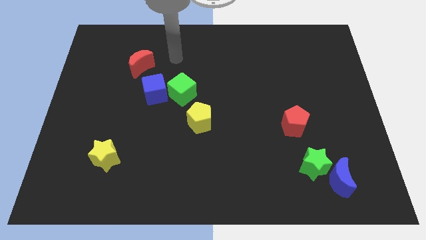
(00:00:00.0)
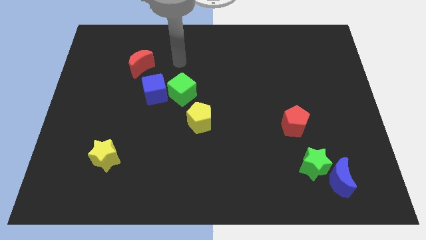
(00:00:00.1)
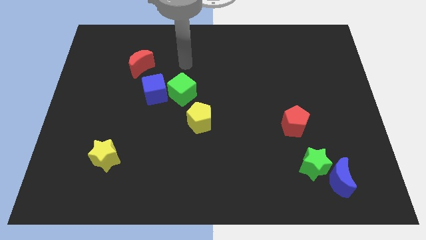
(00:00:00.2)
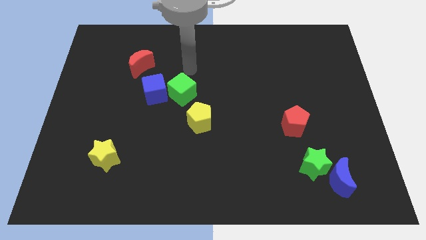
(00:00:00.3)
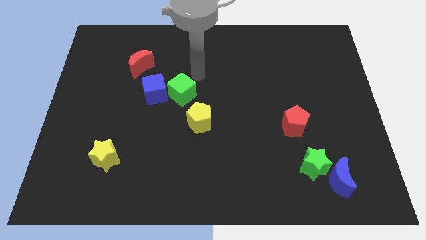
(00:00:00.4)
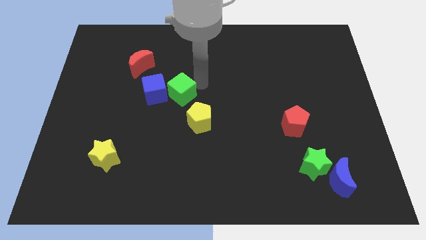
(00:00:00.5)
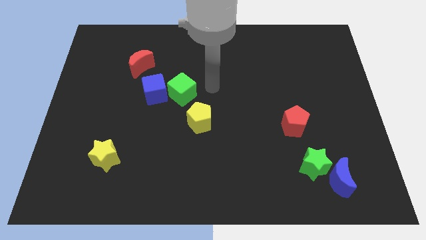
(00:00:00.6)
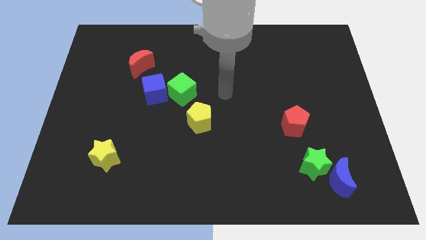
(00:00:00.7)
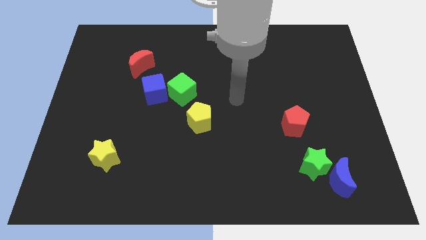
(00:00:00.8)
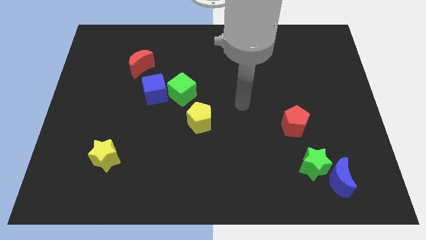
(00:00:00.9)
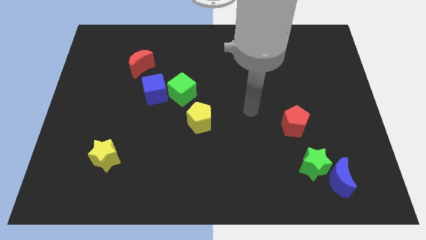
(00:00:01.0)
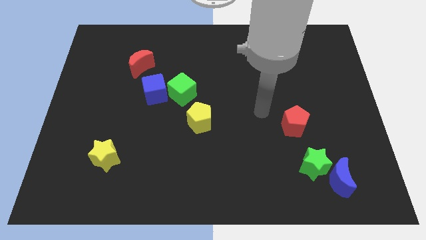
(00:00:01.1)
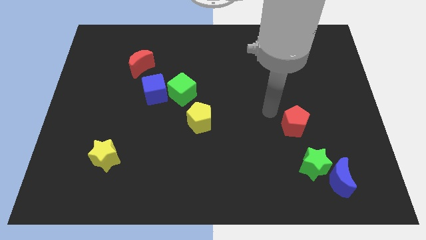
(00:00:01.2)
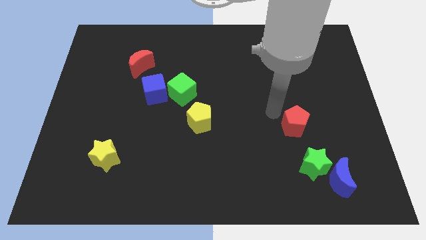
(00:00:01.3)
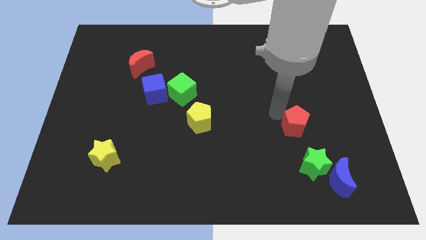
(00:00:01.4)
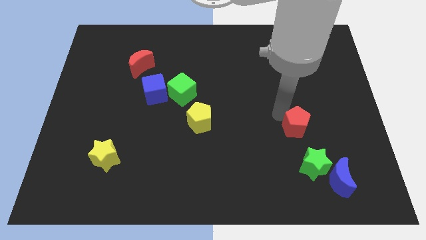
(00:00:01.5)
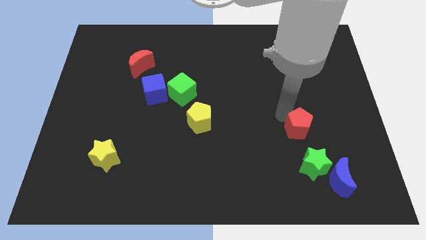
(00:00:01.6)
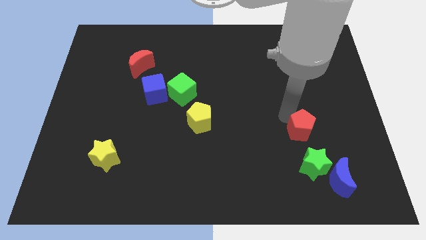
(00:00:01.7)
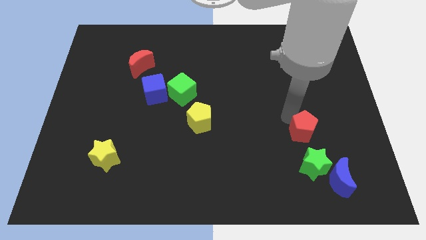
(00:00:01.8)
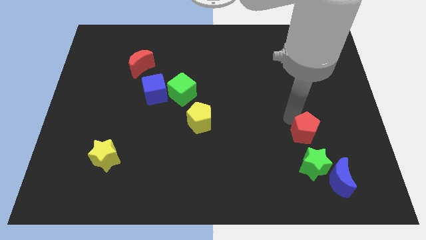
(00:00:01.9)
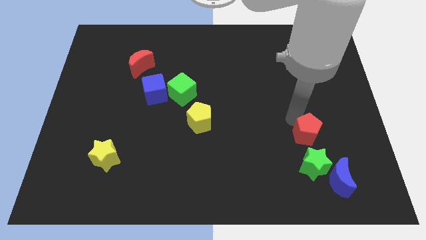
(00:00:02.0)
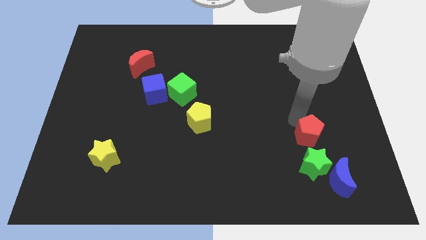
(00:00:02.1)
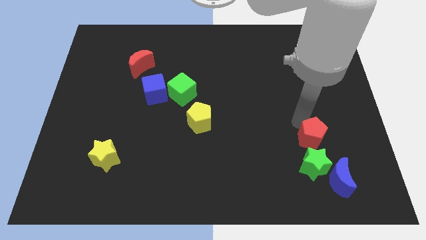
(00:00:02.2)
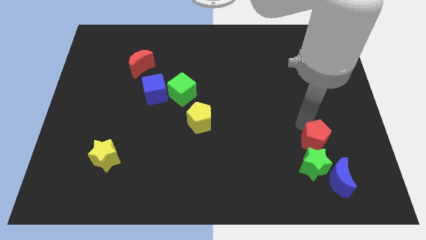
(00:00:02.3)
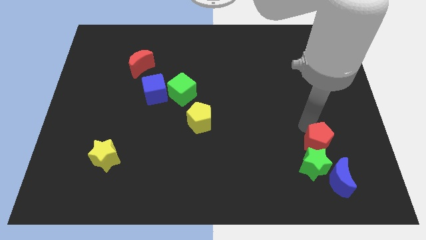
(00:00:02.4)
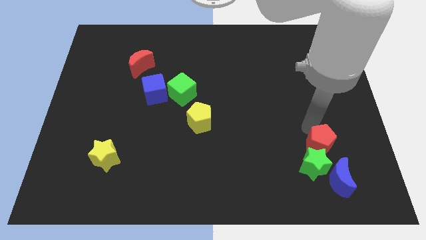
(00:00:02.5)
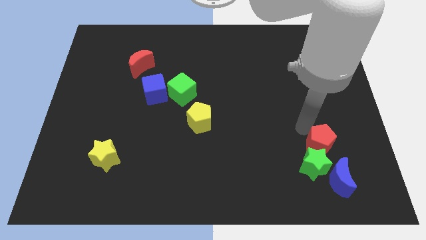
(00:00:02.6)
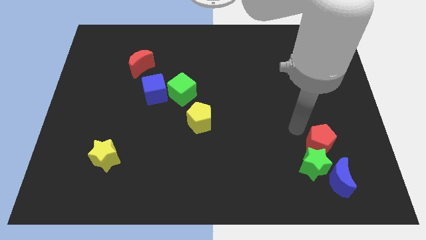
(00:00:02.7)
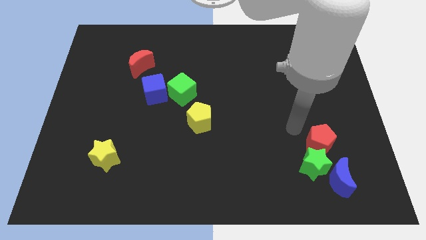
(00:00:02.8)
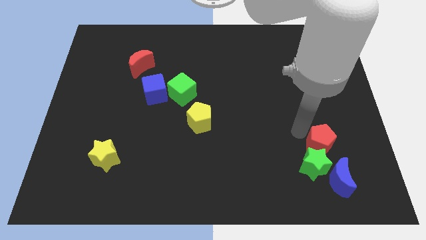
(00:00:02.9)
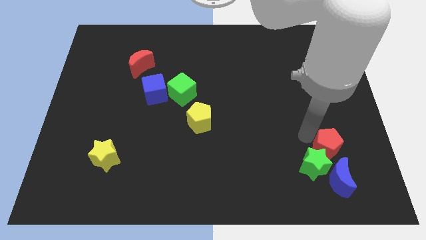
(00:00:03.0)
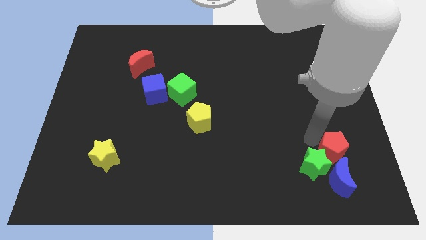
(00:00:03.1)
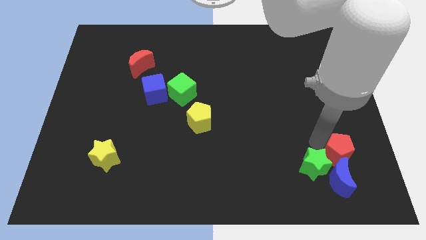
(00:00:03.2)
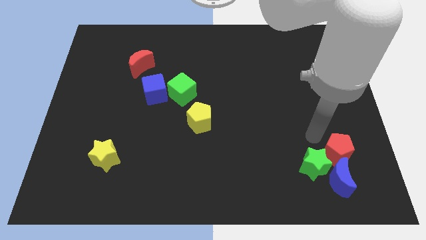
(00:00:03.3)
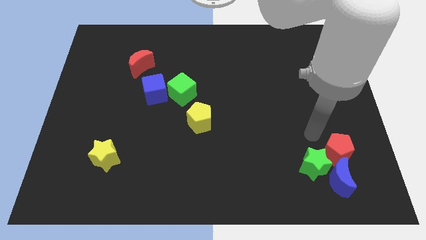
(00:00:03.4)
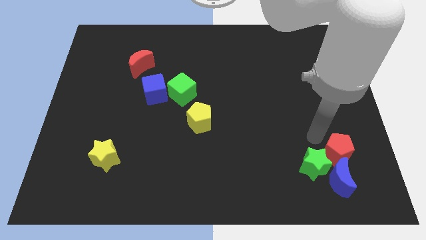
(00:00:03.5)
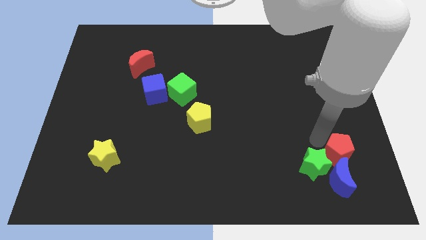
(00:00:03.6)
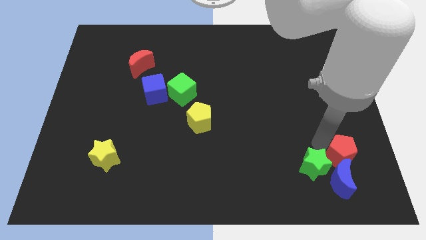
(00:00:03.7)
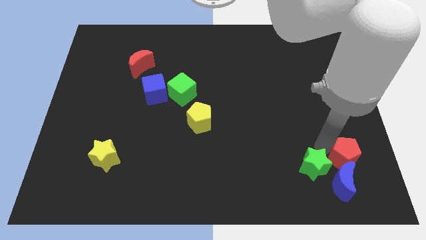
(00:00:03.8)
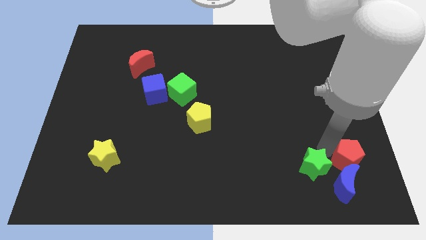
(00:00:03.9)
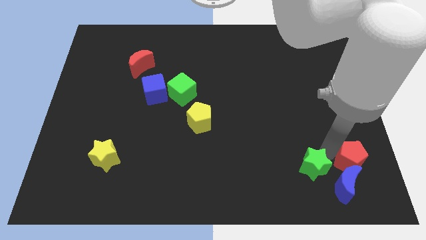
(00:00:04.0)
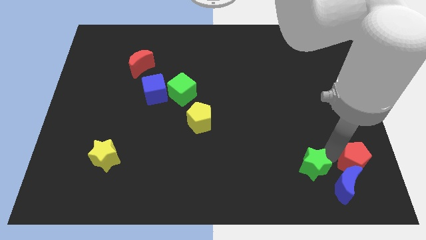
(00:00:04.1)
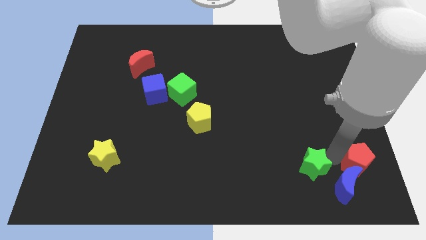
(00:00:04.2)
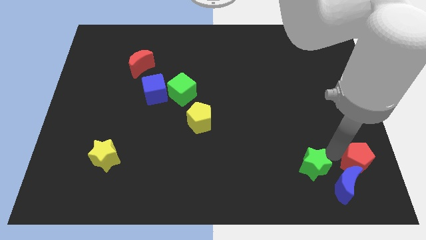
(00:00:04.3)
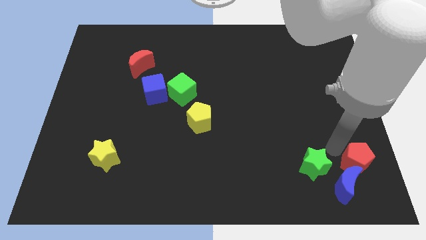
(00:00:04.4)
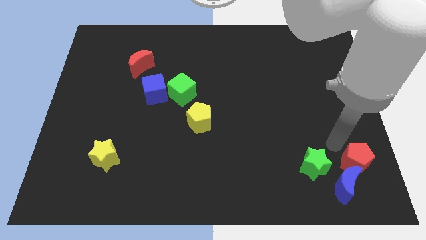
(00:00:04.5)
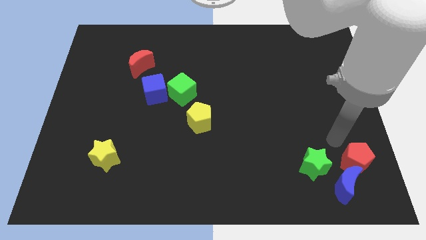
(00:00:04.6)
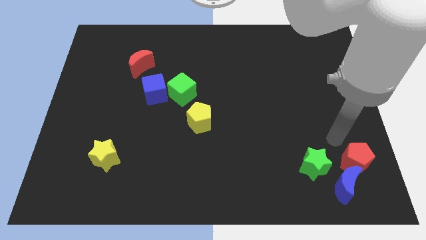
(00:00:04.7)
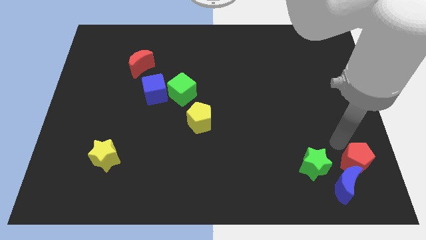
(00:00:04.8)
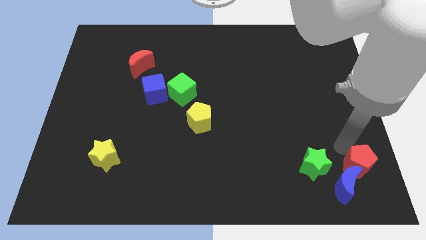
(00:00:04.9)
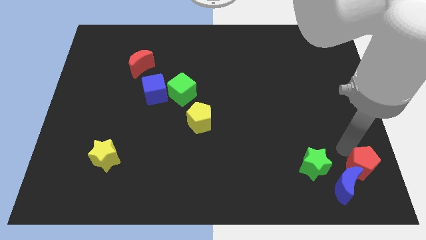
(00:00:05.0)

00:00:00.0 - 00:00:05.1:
slide the red pentagon to the bottom right corner

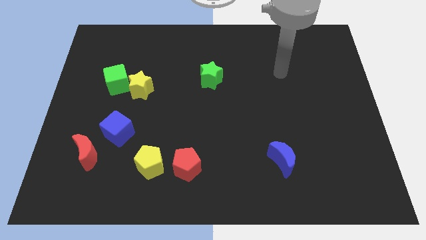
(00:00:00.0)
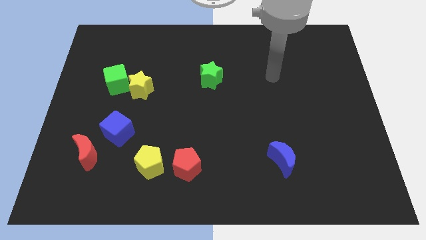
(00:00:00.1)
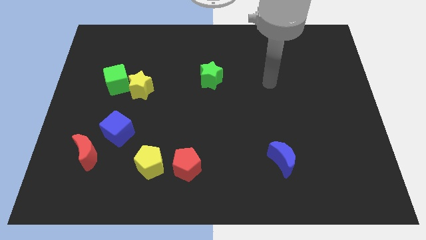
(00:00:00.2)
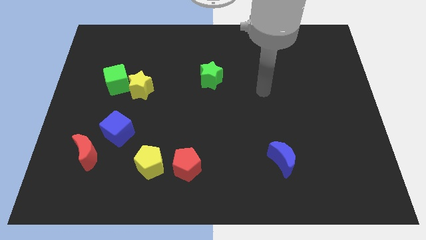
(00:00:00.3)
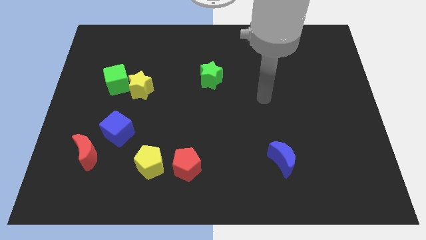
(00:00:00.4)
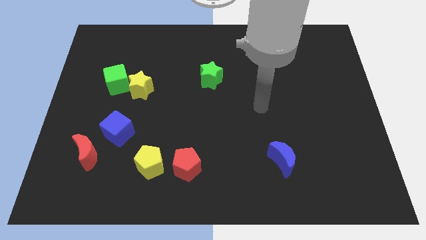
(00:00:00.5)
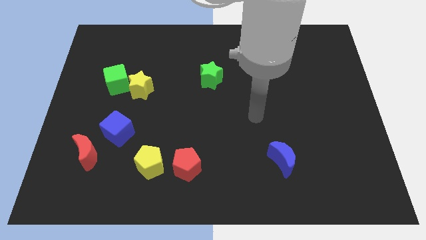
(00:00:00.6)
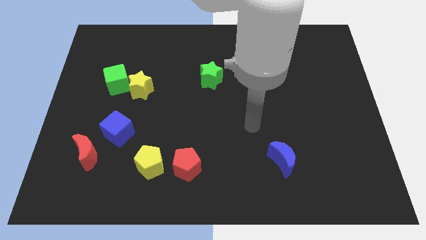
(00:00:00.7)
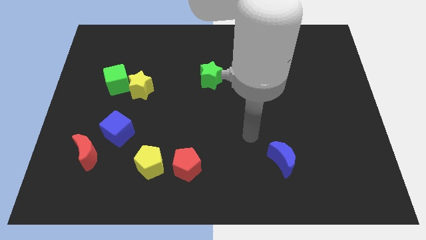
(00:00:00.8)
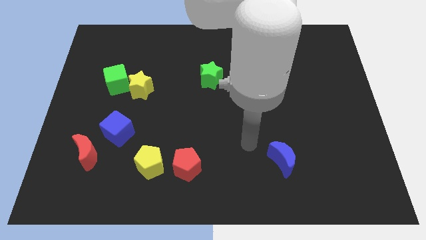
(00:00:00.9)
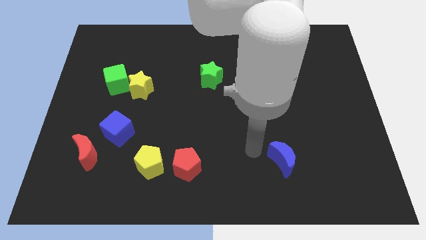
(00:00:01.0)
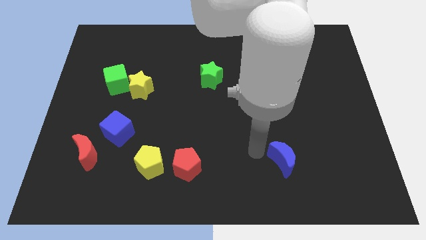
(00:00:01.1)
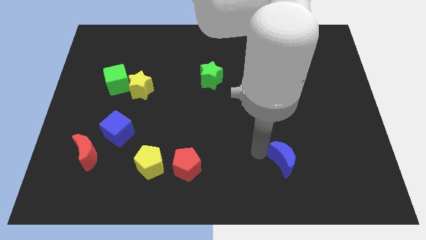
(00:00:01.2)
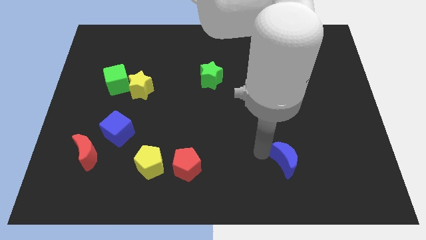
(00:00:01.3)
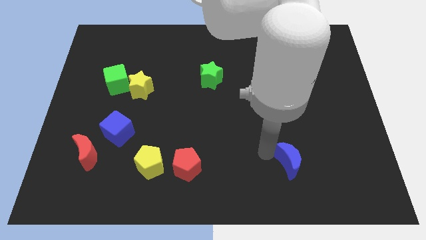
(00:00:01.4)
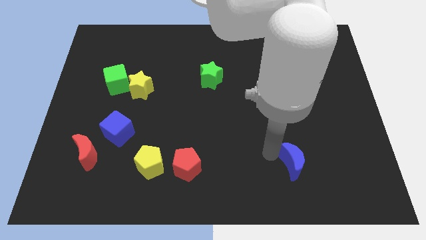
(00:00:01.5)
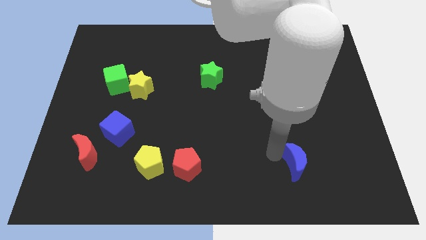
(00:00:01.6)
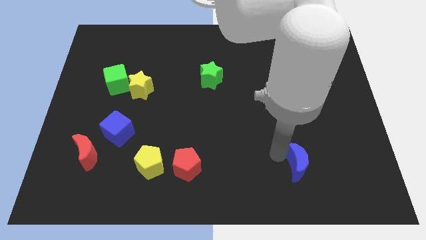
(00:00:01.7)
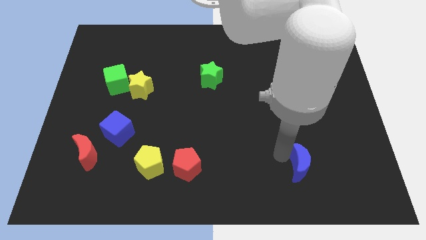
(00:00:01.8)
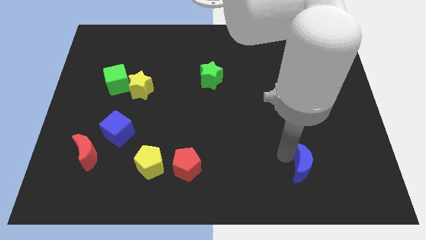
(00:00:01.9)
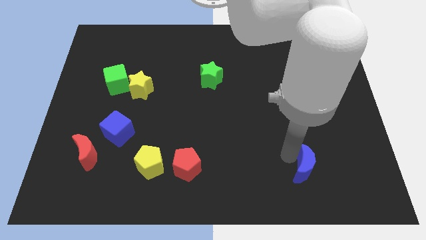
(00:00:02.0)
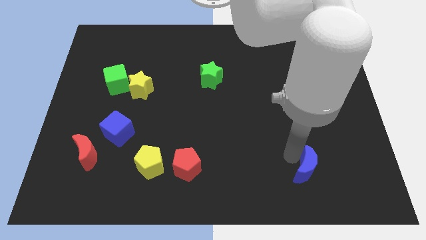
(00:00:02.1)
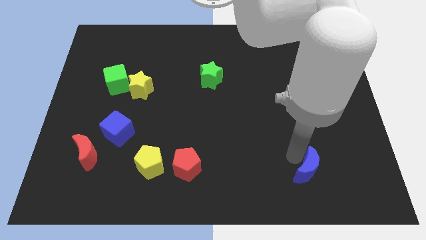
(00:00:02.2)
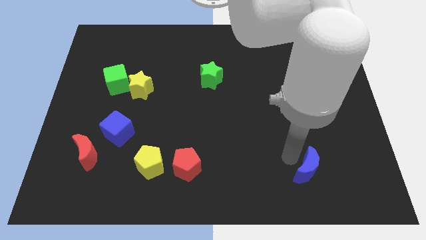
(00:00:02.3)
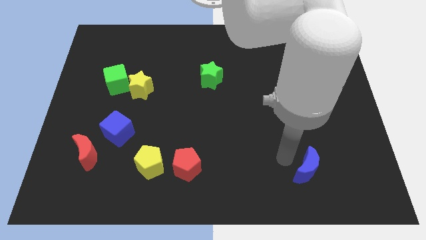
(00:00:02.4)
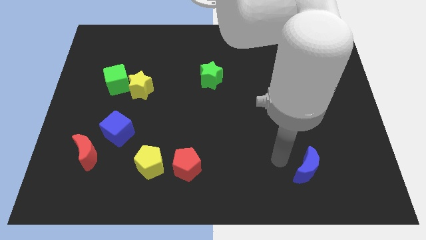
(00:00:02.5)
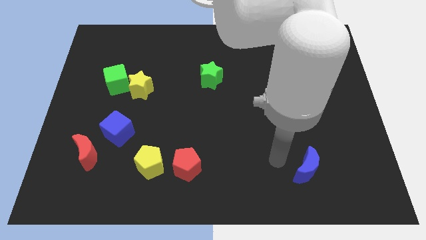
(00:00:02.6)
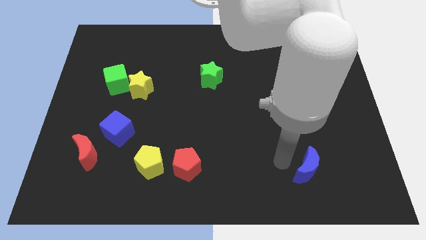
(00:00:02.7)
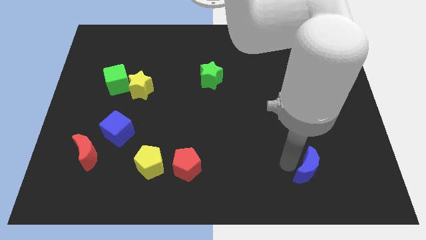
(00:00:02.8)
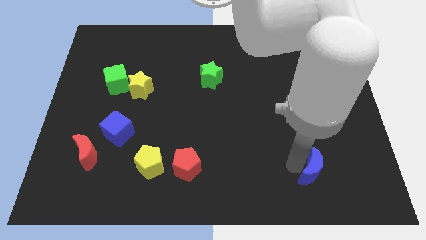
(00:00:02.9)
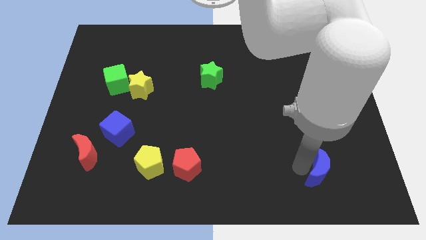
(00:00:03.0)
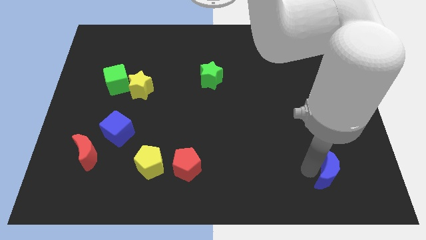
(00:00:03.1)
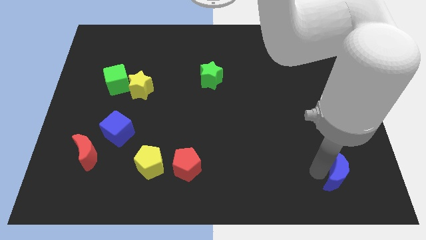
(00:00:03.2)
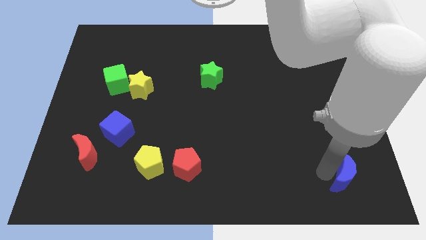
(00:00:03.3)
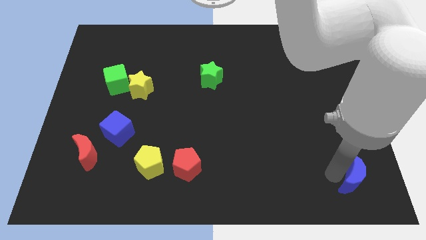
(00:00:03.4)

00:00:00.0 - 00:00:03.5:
put the blue moon to the bottom right
